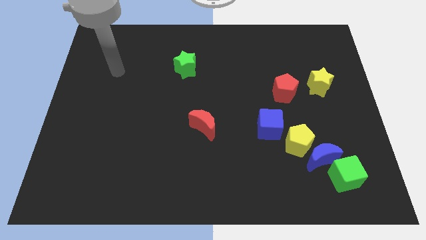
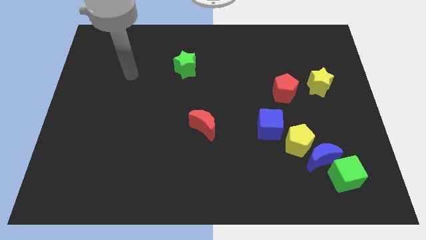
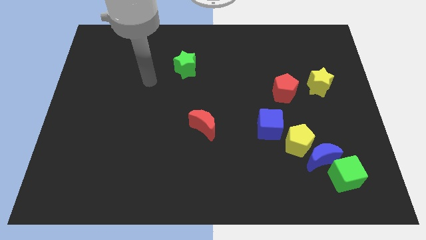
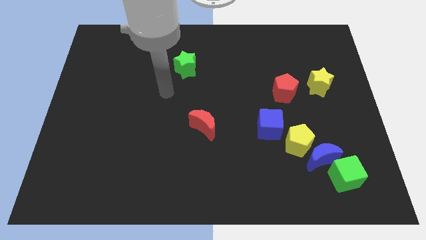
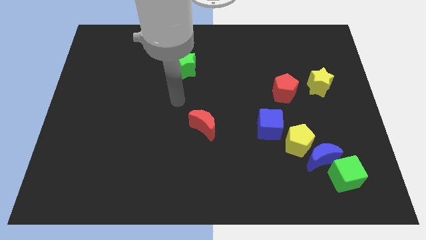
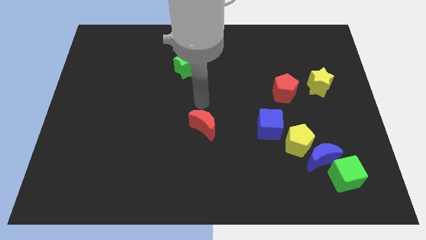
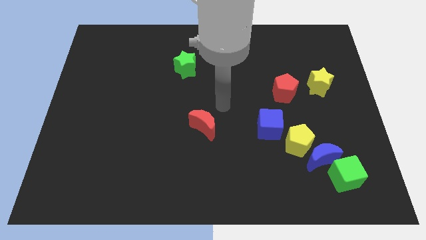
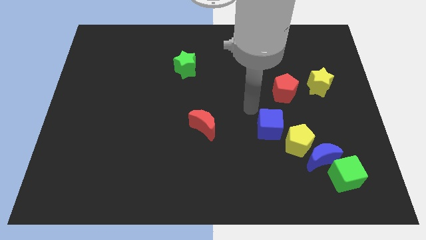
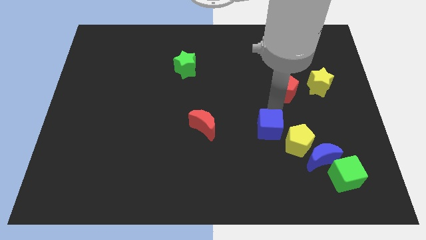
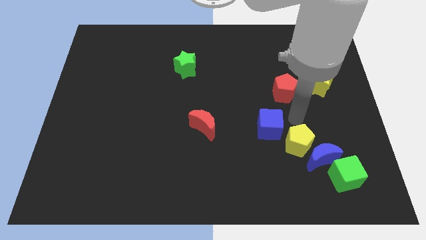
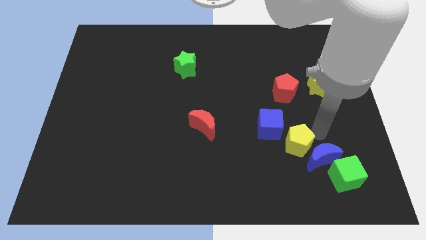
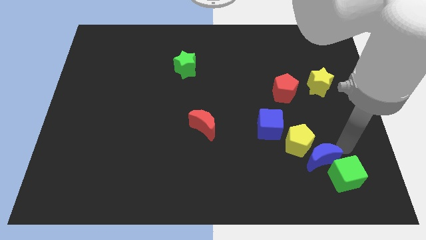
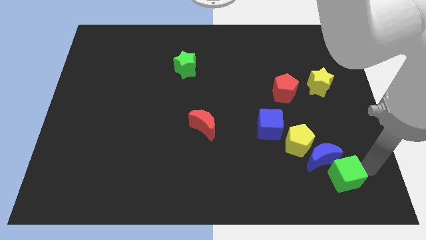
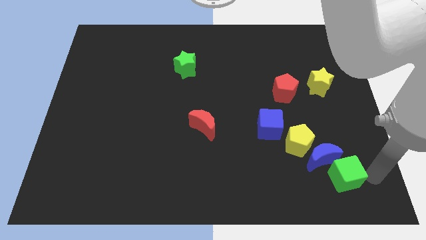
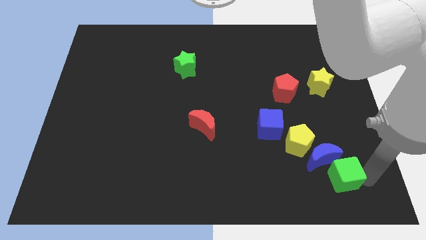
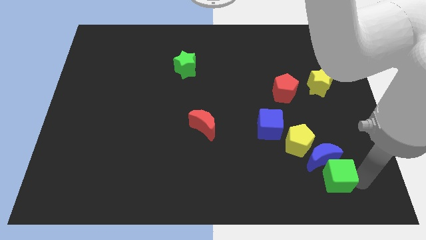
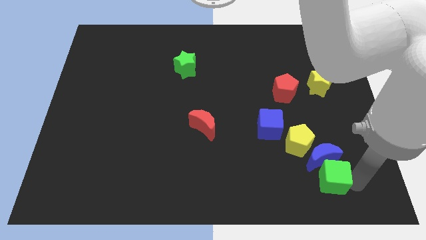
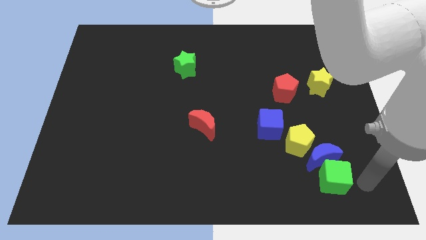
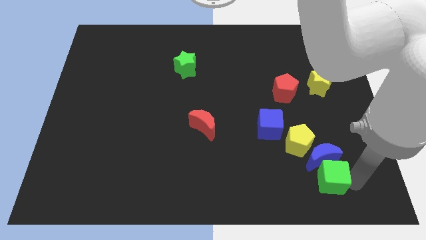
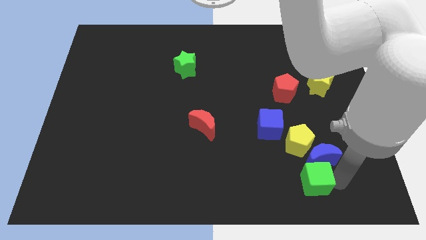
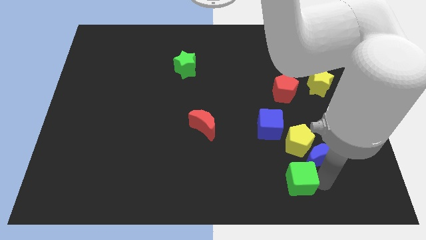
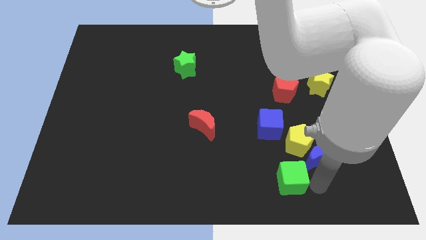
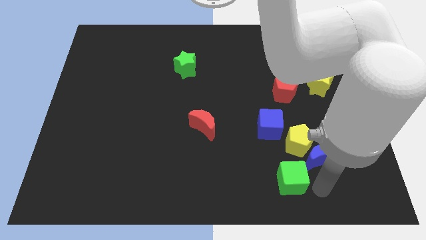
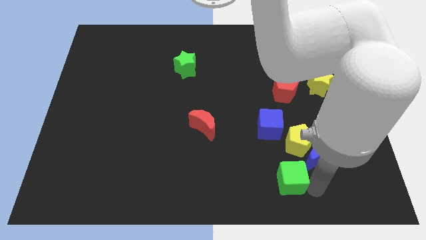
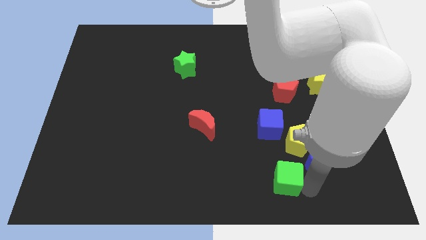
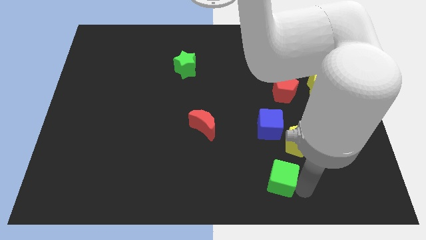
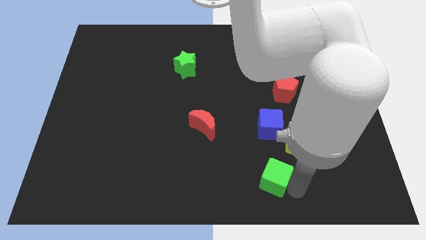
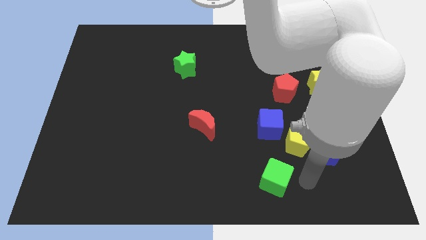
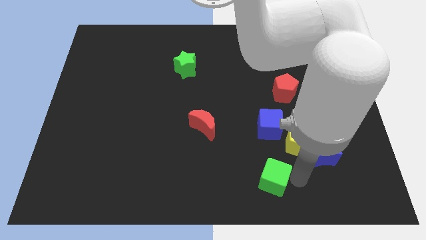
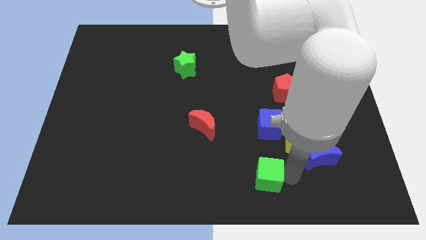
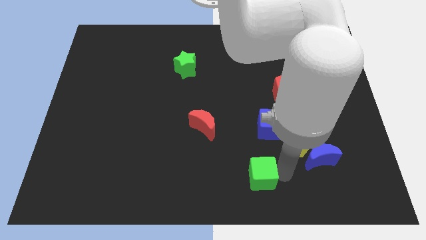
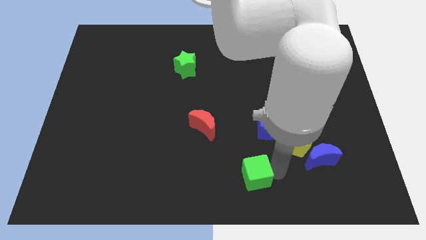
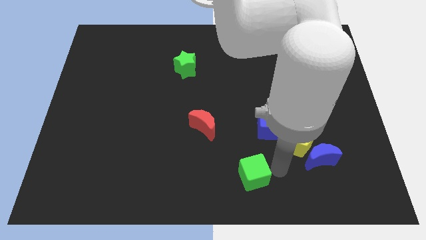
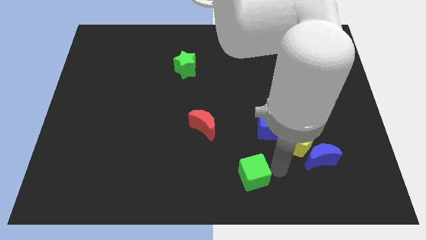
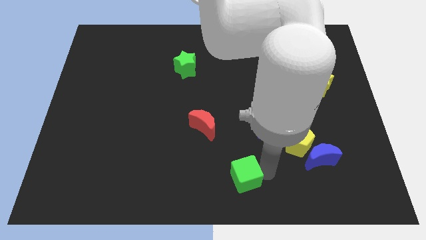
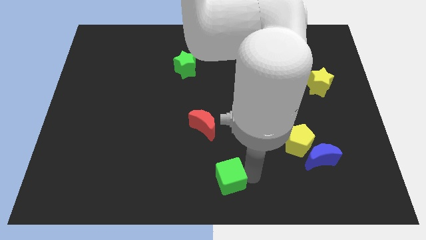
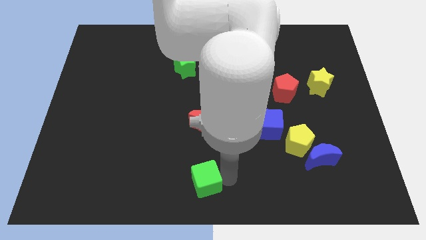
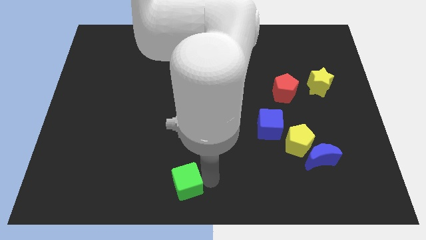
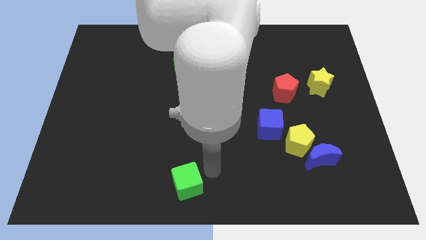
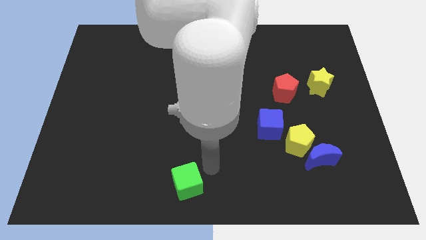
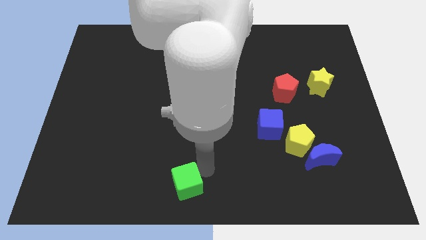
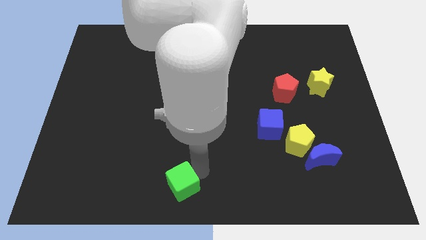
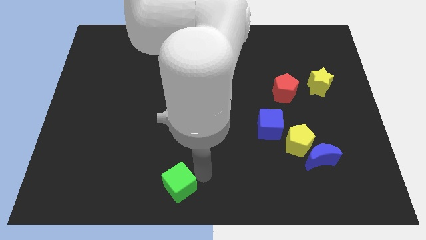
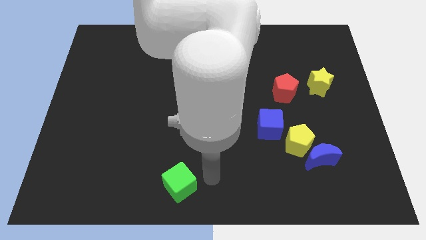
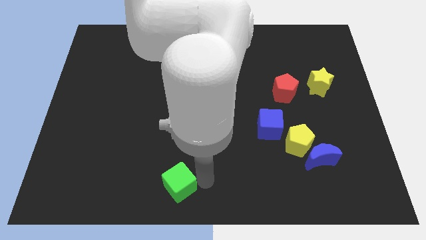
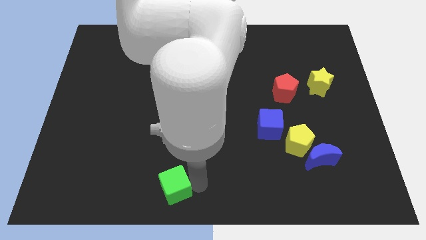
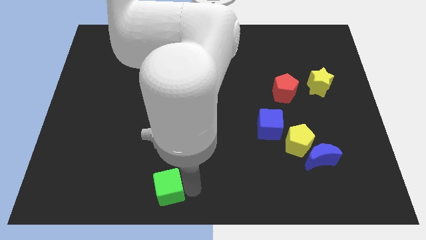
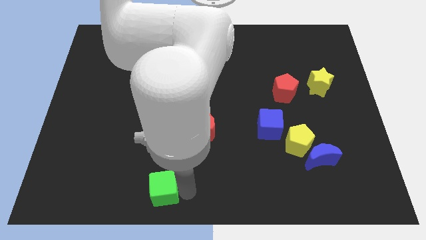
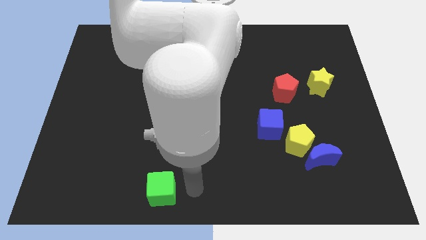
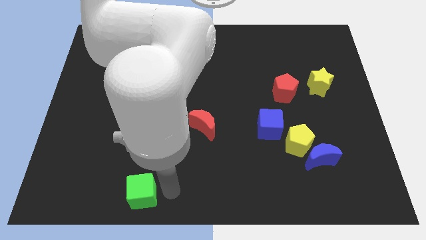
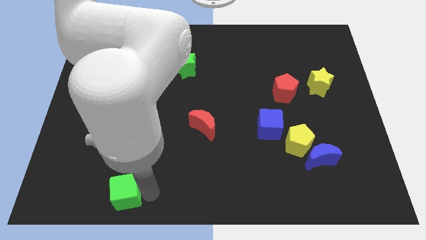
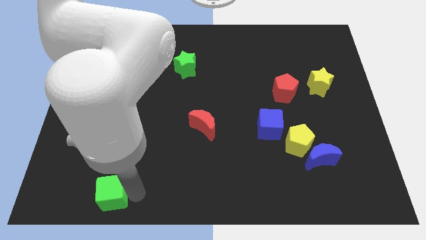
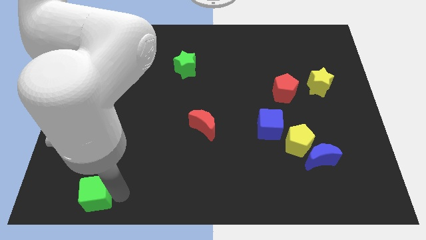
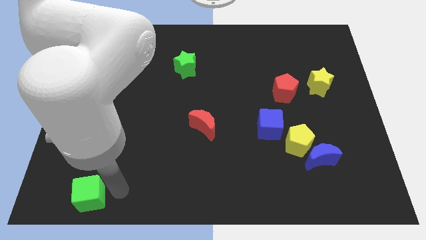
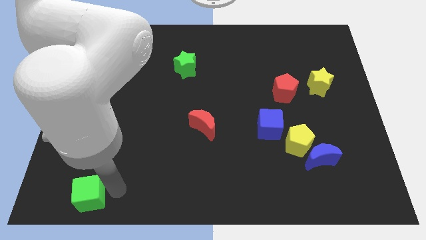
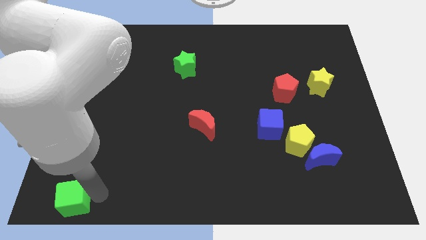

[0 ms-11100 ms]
push the green cube to the bottom left of the board

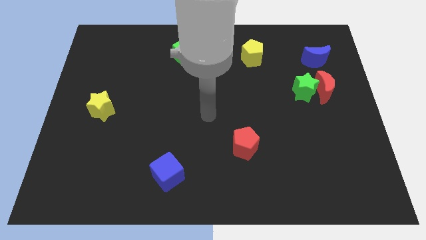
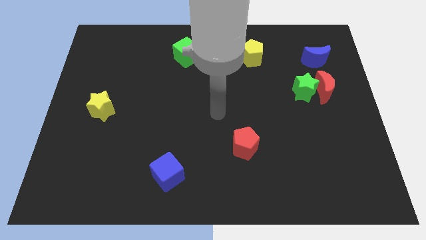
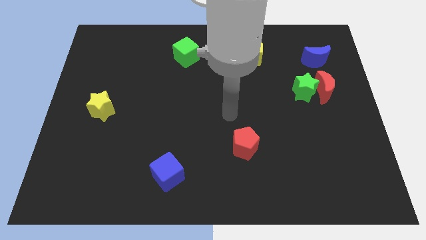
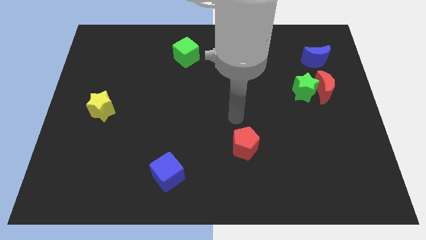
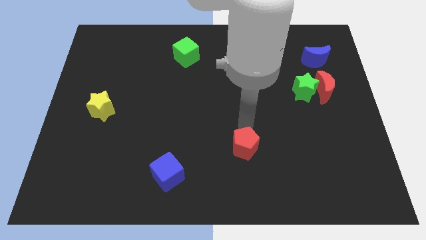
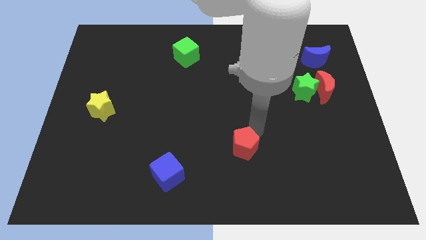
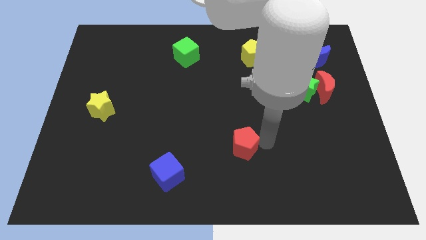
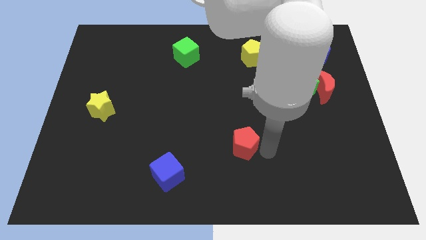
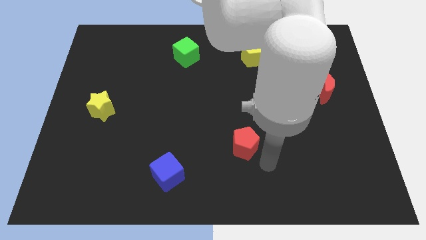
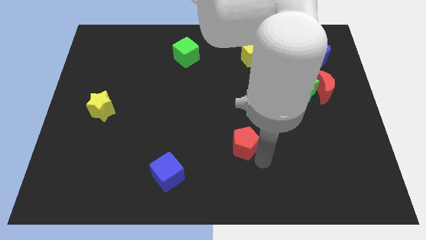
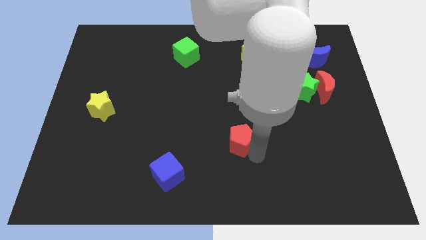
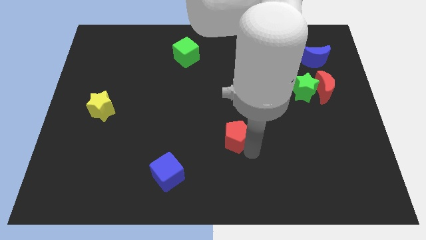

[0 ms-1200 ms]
push the red pentagon to the middle
